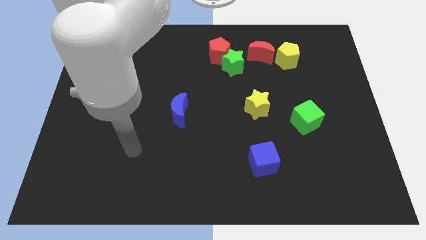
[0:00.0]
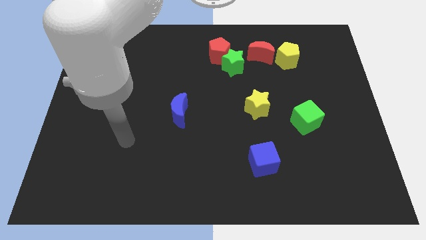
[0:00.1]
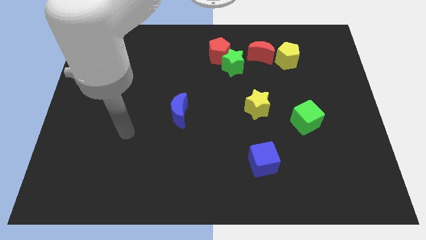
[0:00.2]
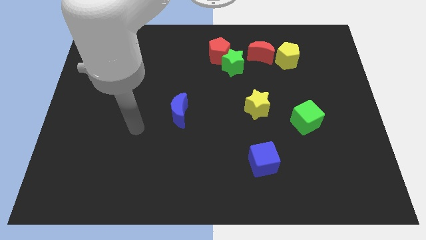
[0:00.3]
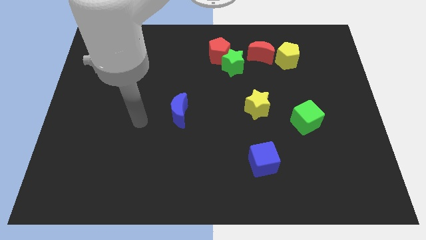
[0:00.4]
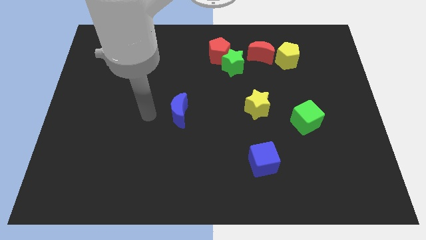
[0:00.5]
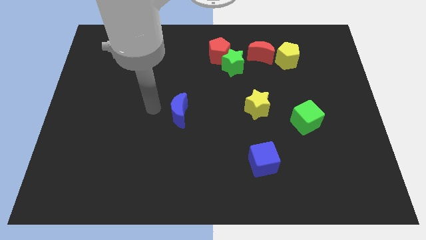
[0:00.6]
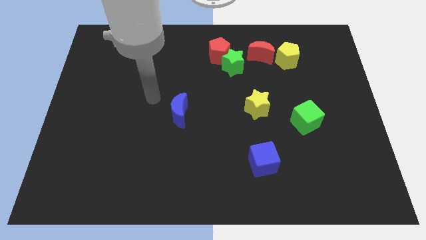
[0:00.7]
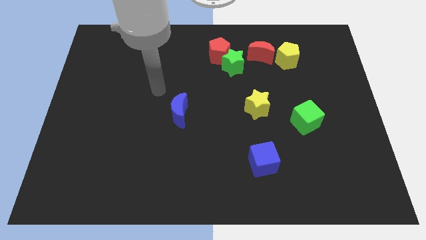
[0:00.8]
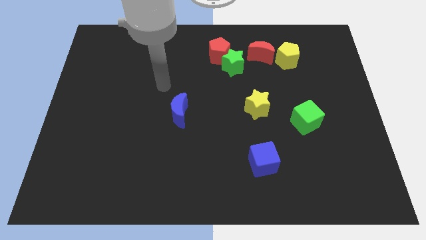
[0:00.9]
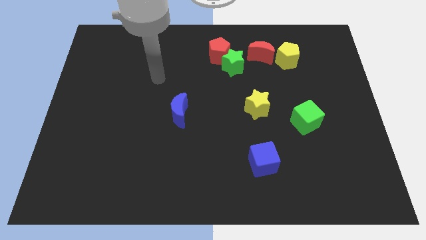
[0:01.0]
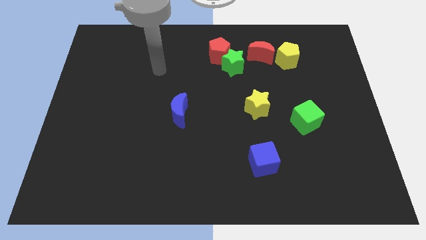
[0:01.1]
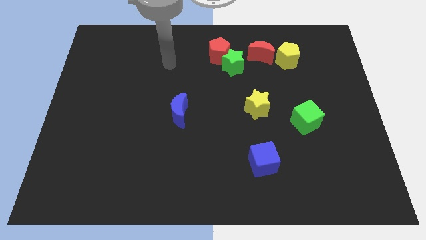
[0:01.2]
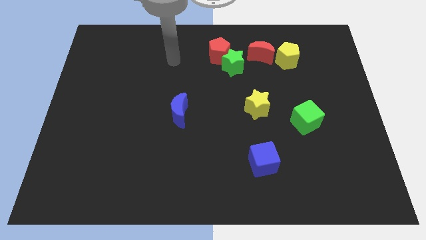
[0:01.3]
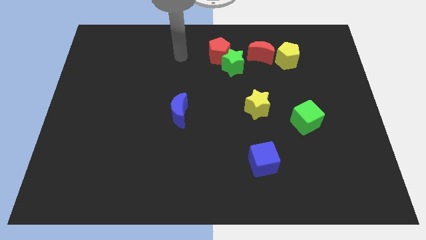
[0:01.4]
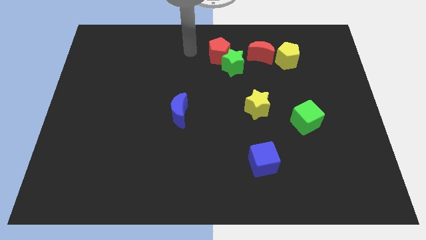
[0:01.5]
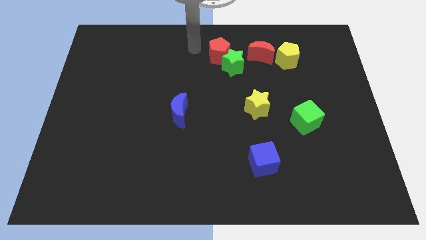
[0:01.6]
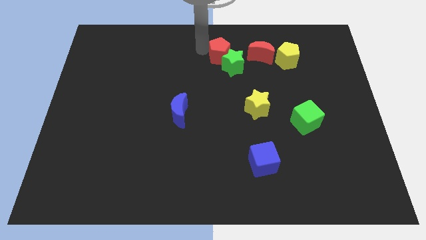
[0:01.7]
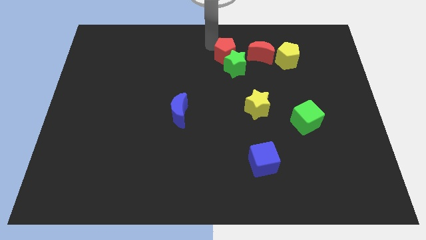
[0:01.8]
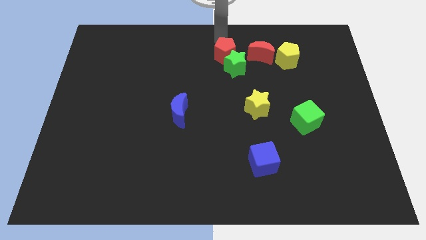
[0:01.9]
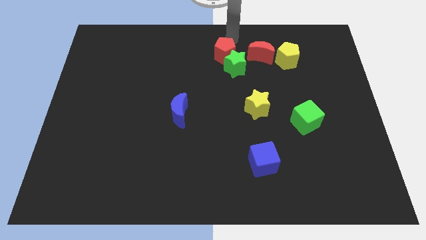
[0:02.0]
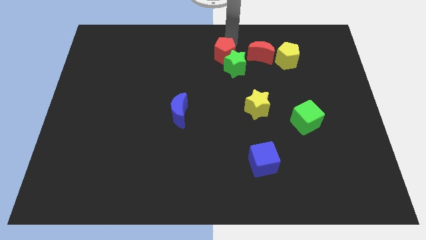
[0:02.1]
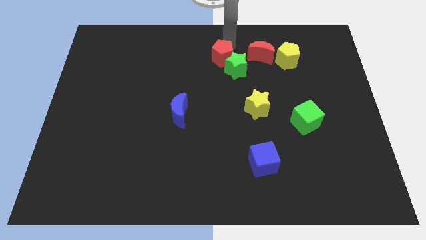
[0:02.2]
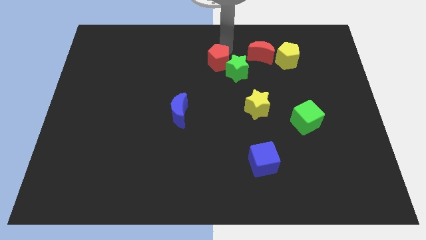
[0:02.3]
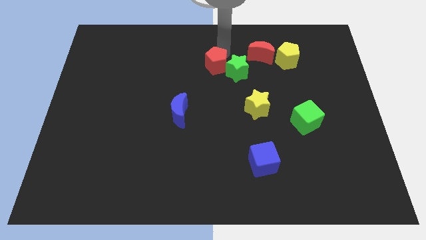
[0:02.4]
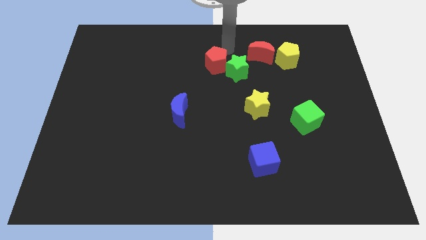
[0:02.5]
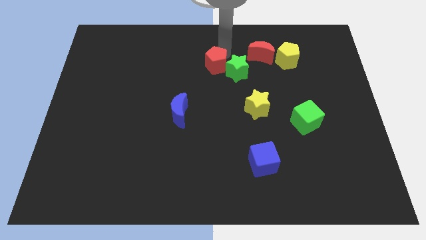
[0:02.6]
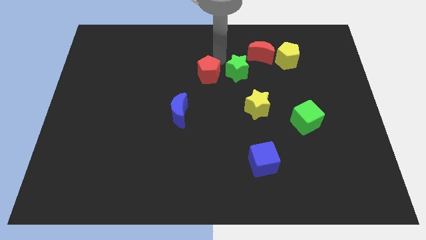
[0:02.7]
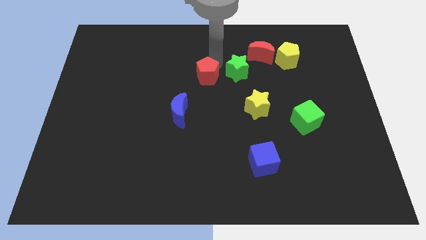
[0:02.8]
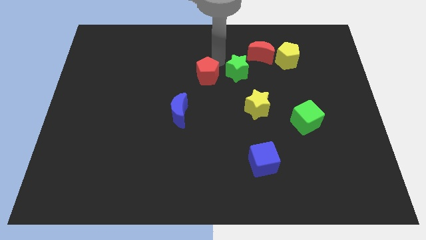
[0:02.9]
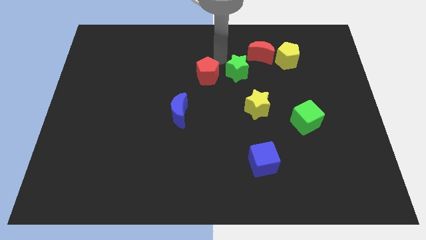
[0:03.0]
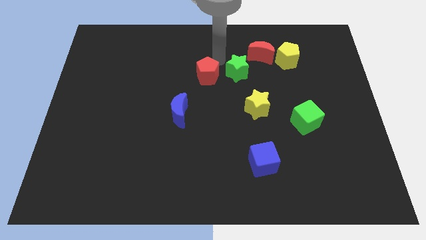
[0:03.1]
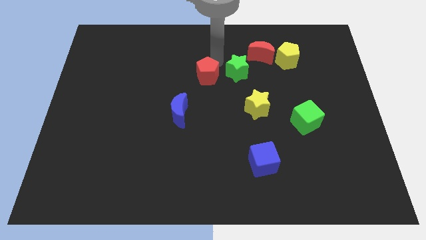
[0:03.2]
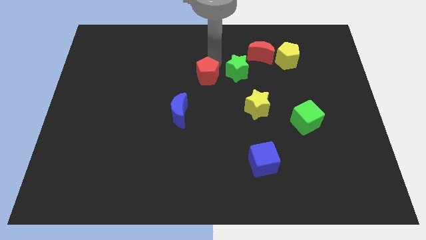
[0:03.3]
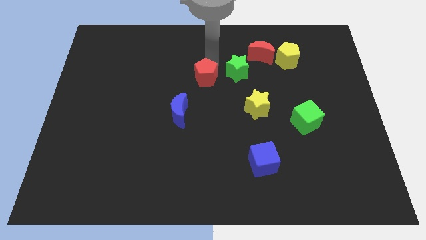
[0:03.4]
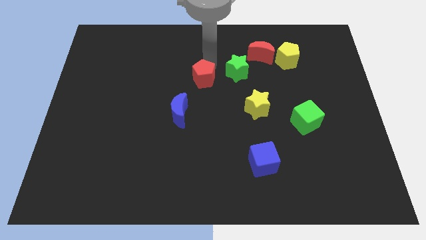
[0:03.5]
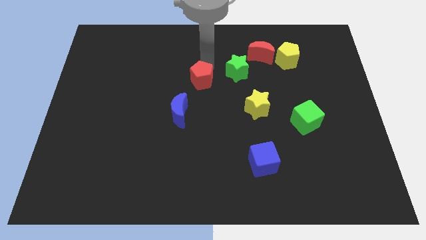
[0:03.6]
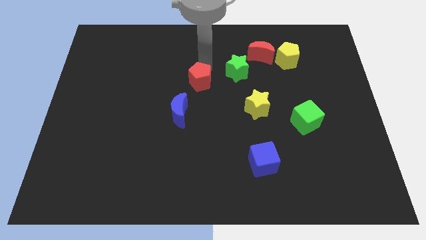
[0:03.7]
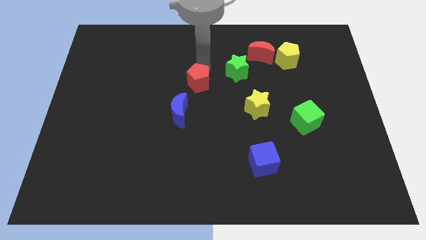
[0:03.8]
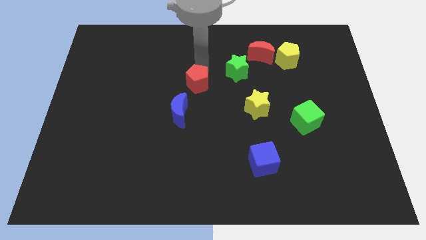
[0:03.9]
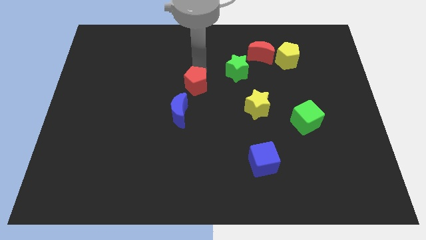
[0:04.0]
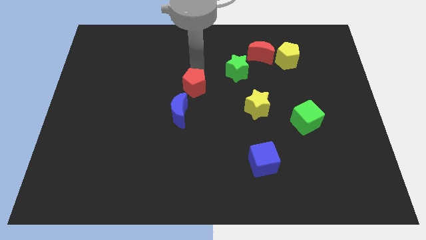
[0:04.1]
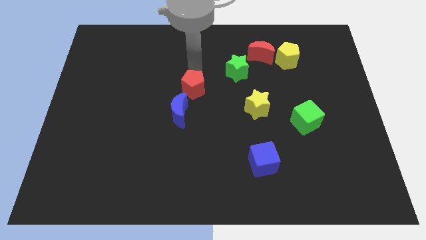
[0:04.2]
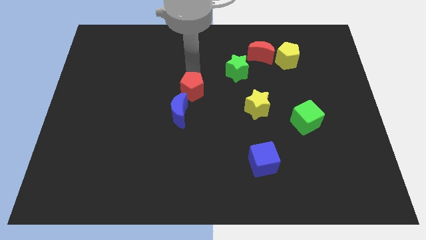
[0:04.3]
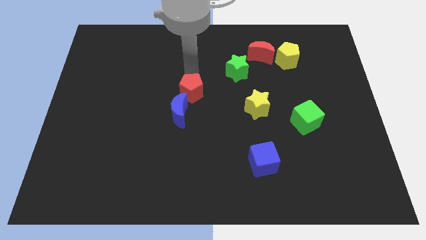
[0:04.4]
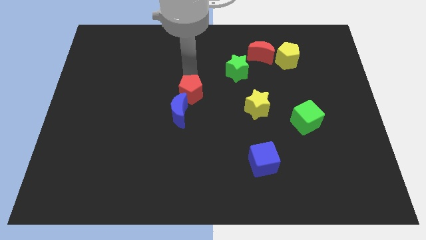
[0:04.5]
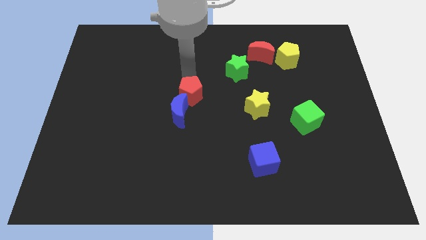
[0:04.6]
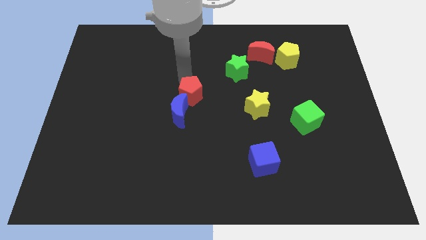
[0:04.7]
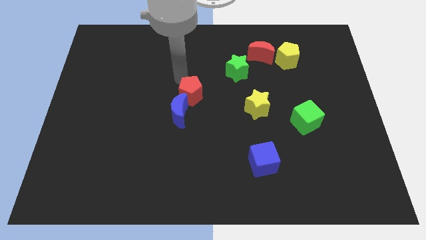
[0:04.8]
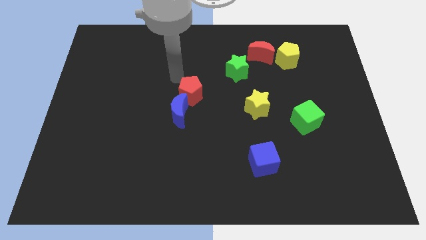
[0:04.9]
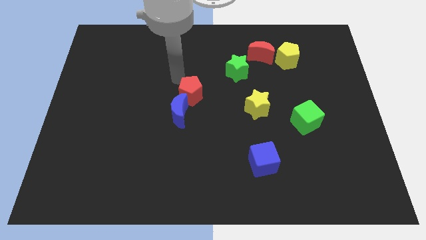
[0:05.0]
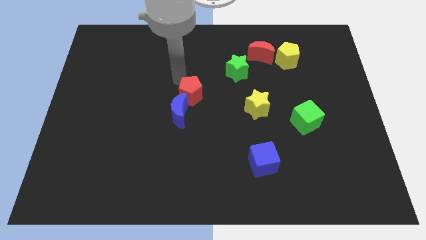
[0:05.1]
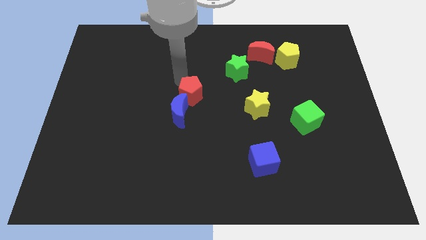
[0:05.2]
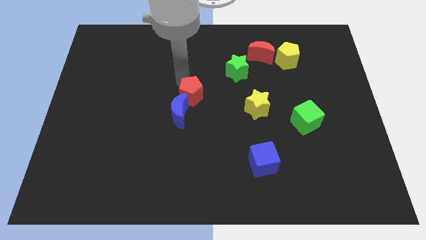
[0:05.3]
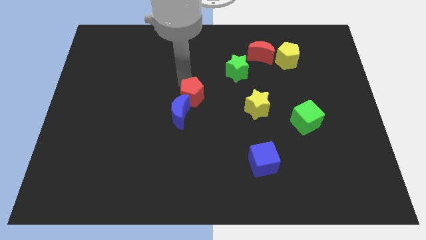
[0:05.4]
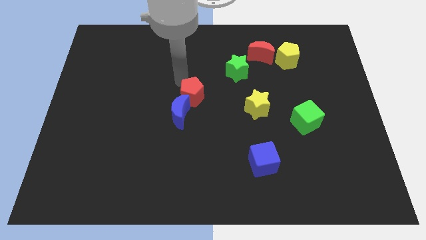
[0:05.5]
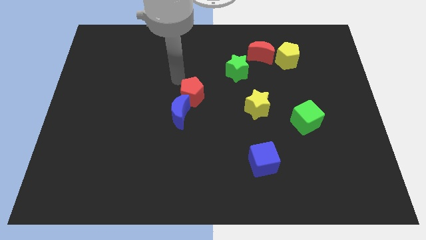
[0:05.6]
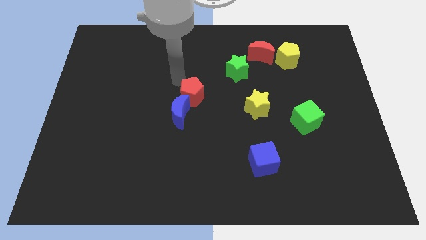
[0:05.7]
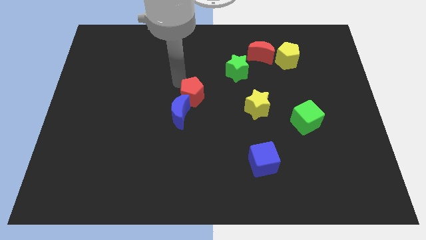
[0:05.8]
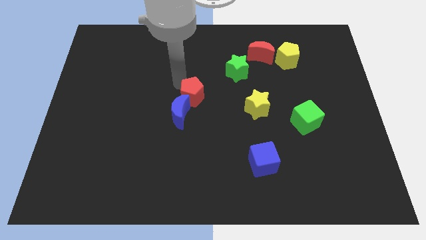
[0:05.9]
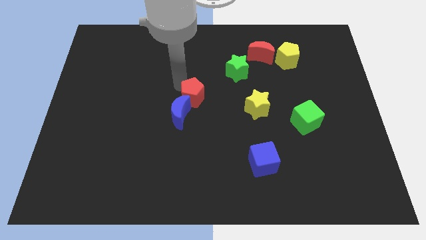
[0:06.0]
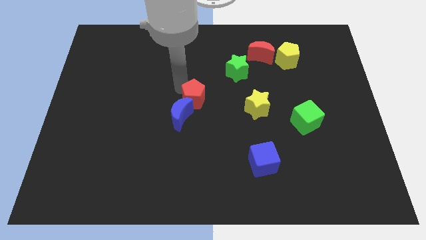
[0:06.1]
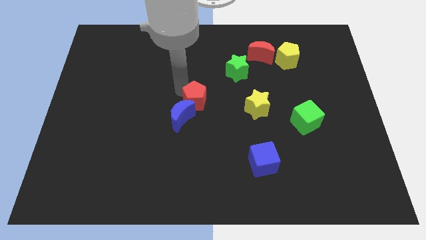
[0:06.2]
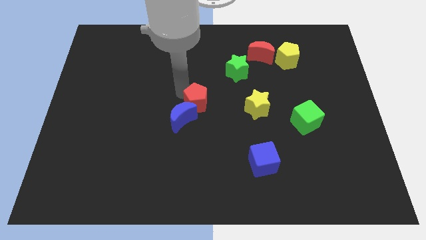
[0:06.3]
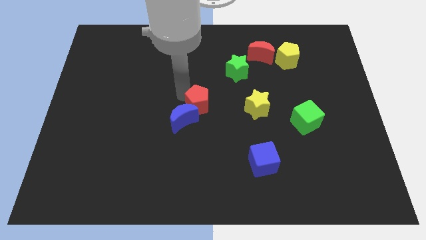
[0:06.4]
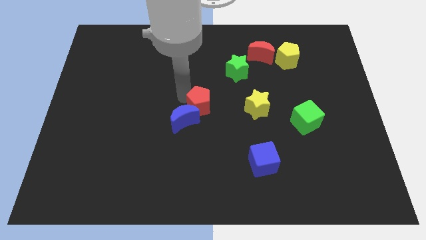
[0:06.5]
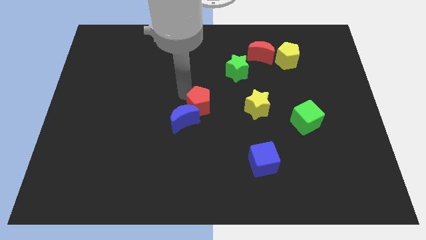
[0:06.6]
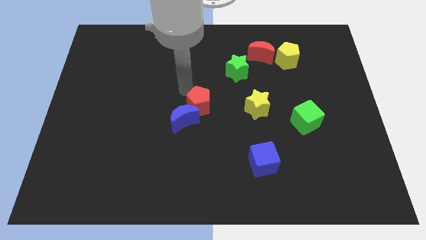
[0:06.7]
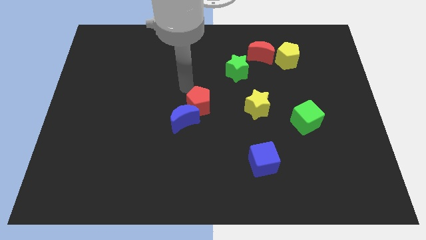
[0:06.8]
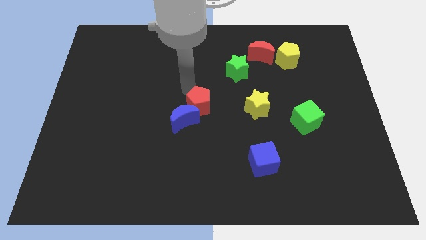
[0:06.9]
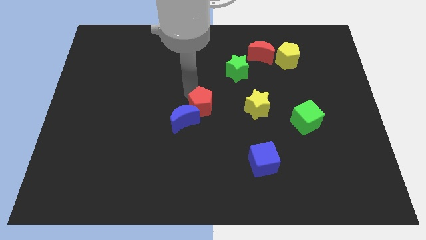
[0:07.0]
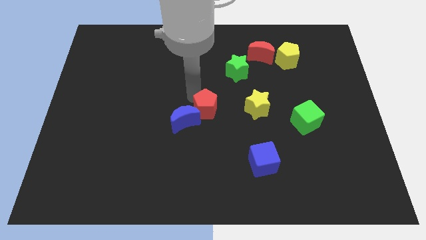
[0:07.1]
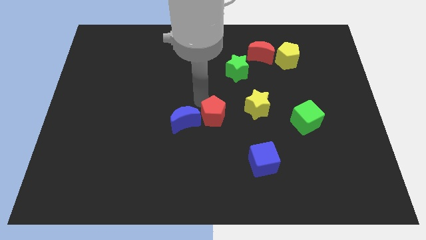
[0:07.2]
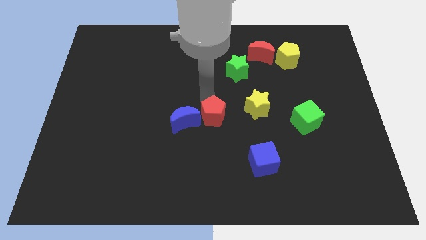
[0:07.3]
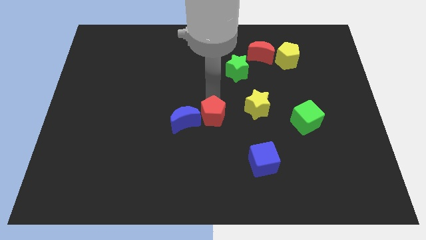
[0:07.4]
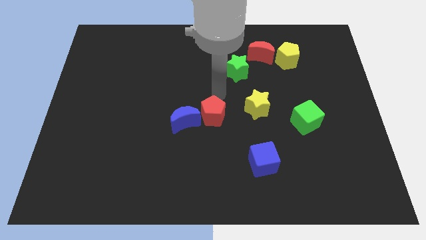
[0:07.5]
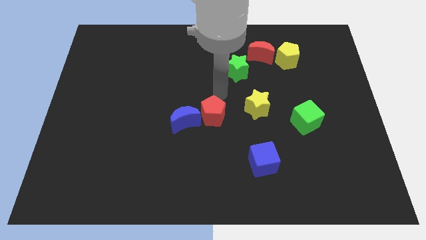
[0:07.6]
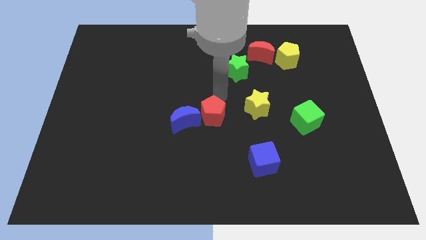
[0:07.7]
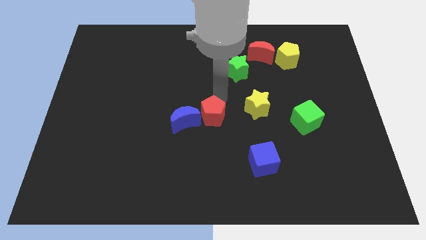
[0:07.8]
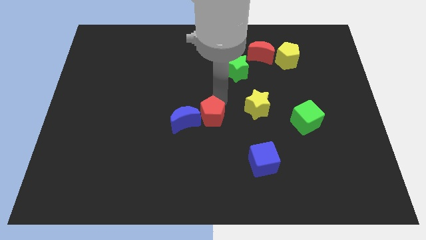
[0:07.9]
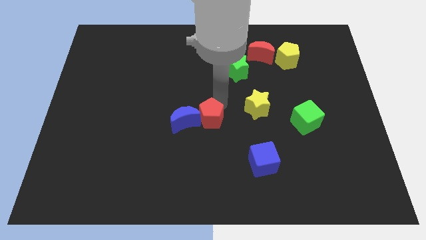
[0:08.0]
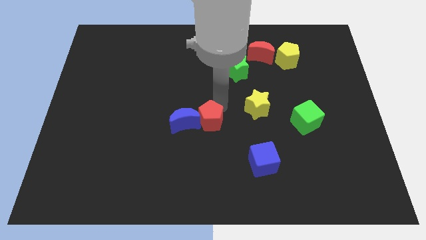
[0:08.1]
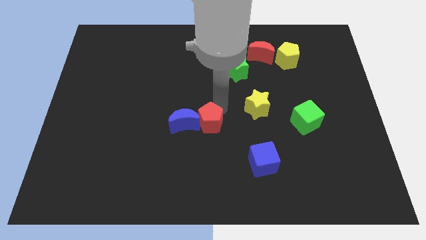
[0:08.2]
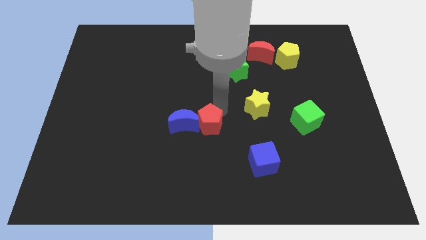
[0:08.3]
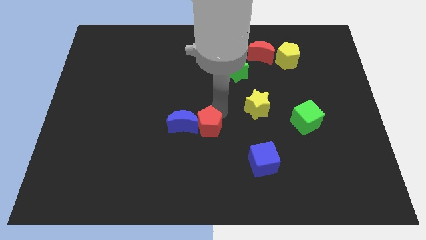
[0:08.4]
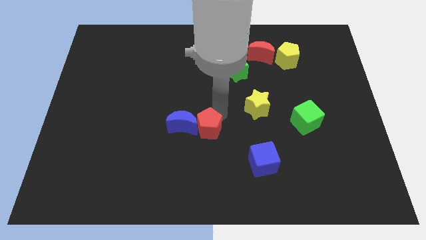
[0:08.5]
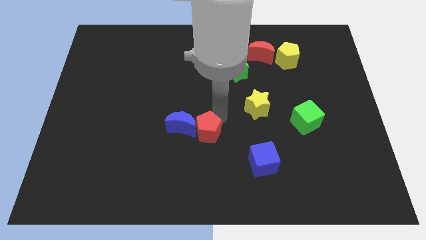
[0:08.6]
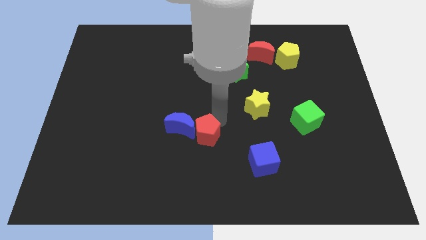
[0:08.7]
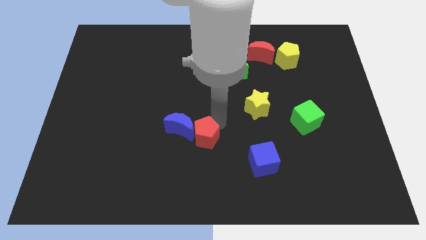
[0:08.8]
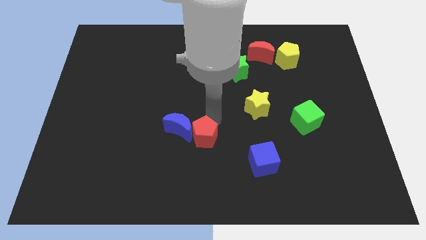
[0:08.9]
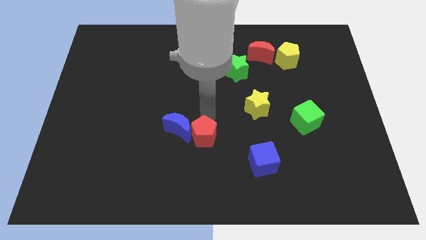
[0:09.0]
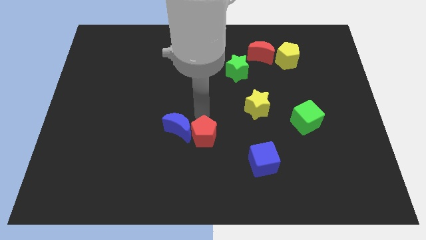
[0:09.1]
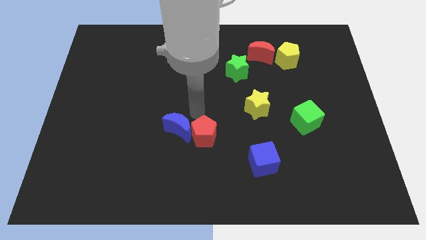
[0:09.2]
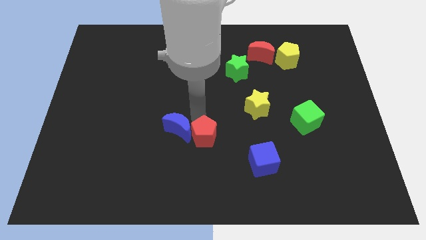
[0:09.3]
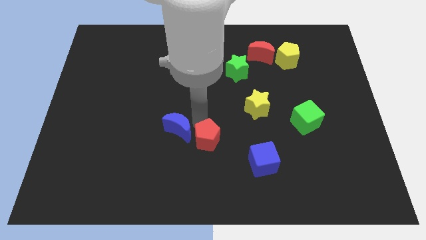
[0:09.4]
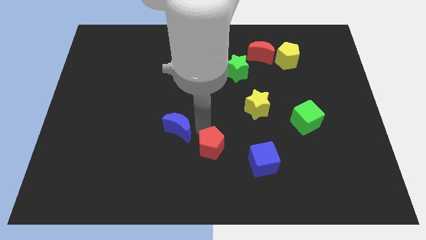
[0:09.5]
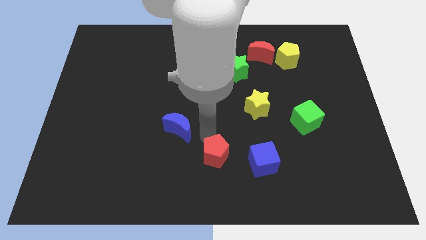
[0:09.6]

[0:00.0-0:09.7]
slide the red pentagon to the bottom side
